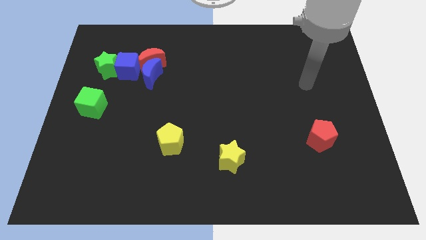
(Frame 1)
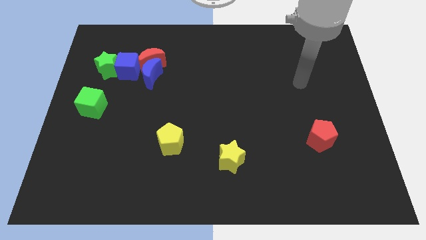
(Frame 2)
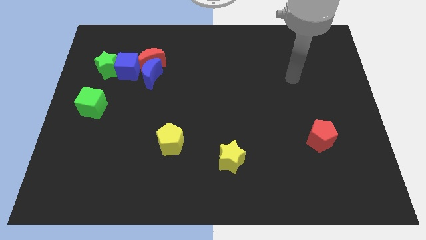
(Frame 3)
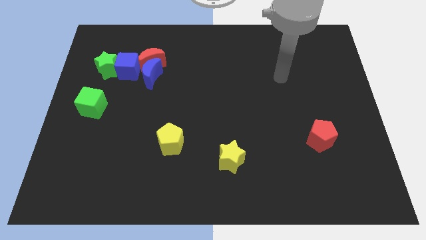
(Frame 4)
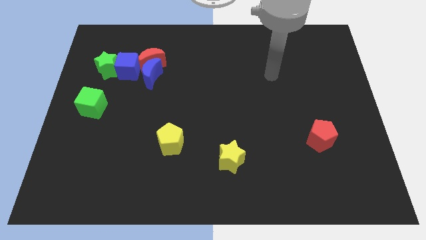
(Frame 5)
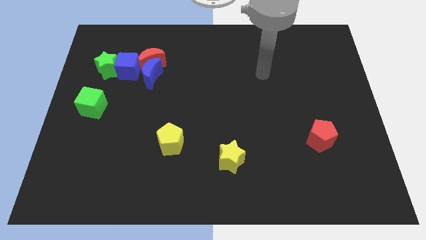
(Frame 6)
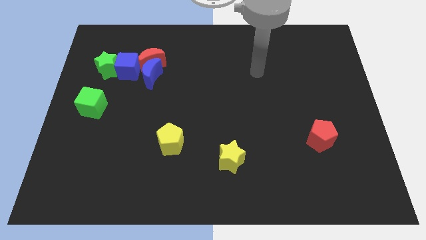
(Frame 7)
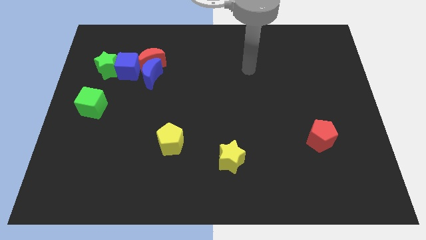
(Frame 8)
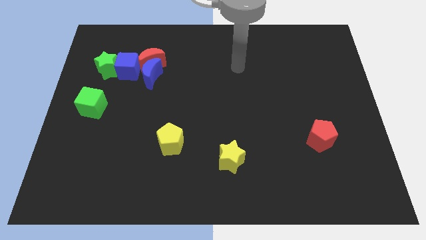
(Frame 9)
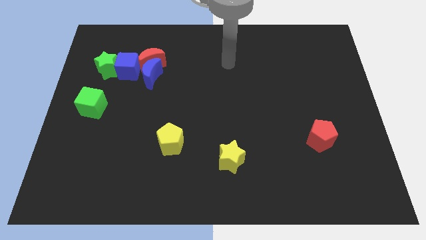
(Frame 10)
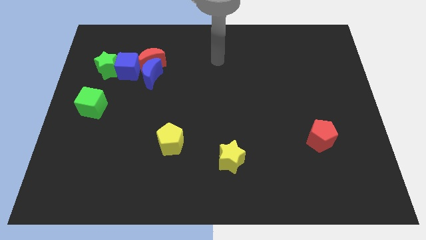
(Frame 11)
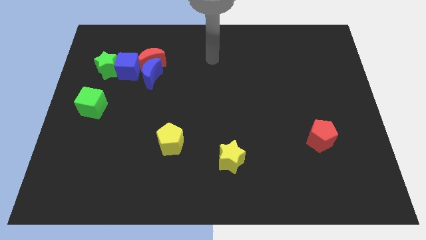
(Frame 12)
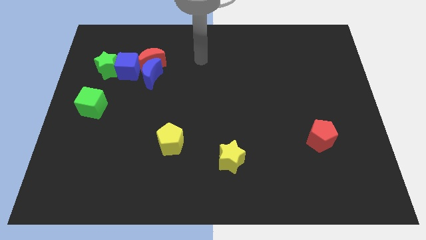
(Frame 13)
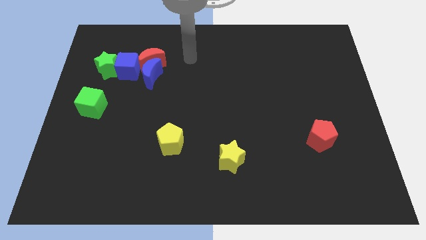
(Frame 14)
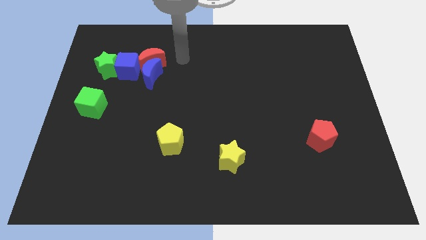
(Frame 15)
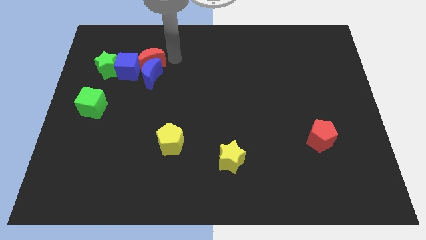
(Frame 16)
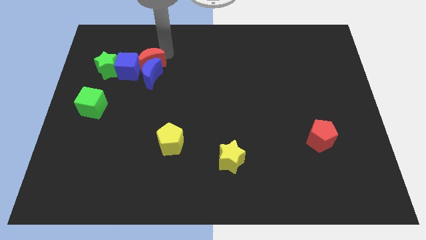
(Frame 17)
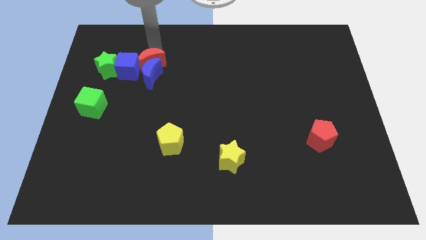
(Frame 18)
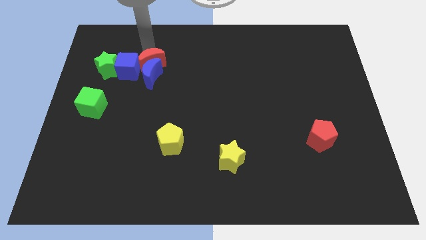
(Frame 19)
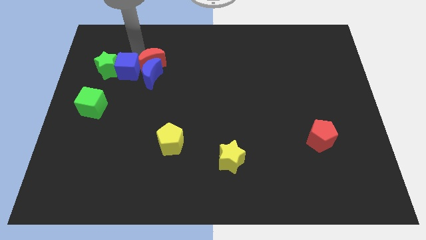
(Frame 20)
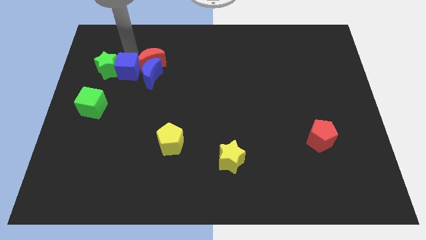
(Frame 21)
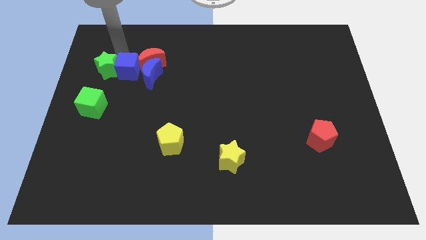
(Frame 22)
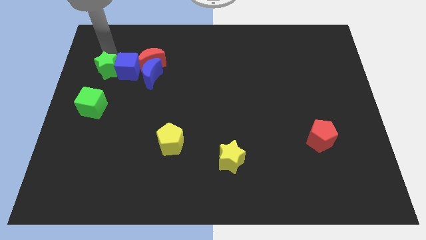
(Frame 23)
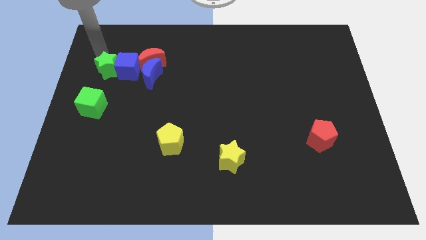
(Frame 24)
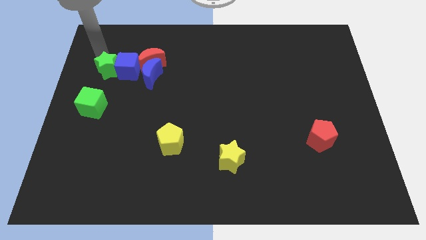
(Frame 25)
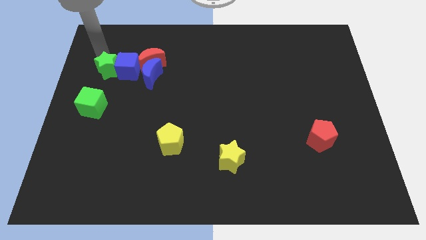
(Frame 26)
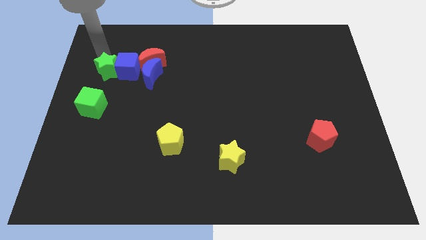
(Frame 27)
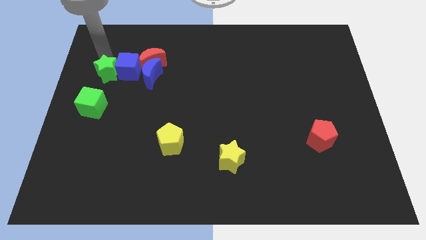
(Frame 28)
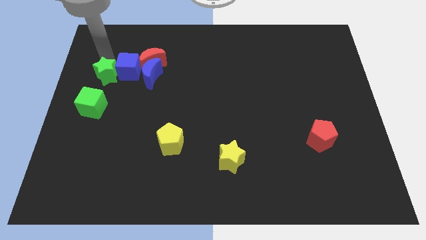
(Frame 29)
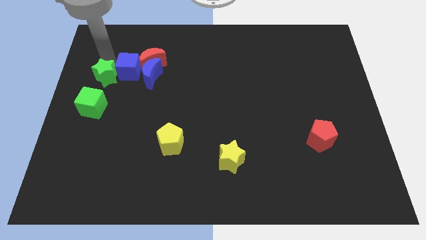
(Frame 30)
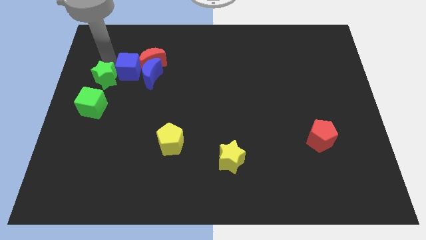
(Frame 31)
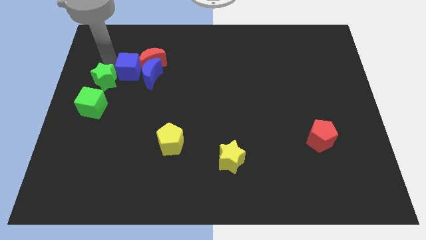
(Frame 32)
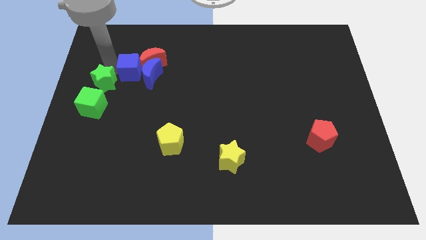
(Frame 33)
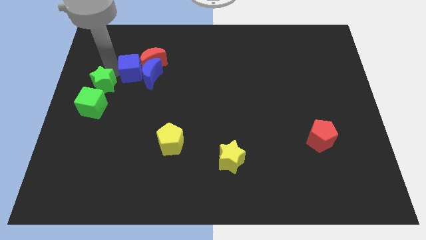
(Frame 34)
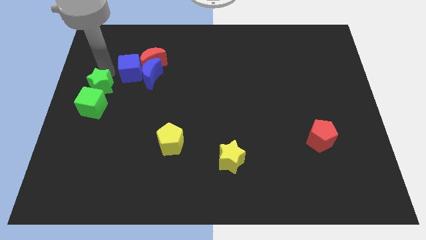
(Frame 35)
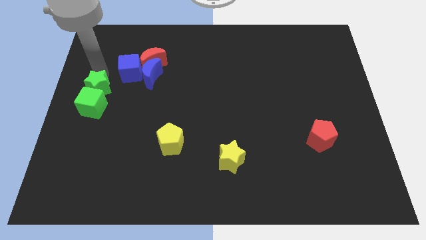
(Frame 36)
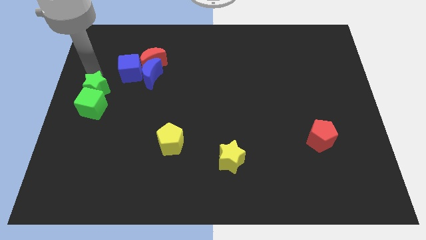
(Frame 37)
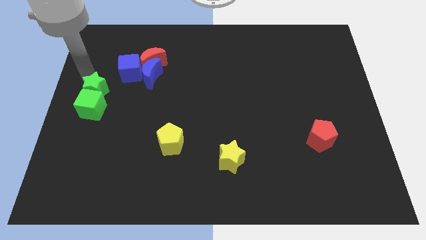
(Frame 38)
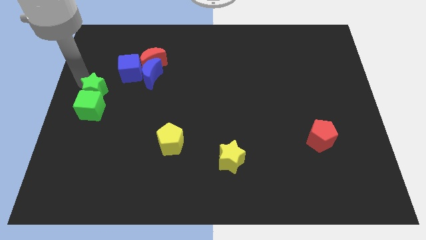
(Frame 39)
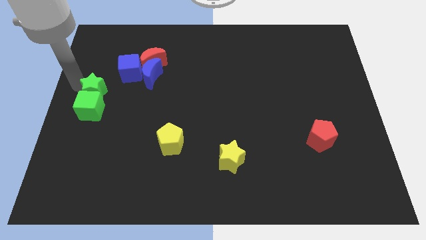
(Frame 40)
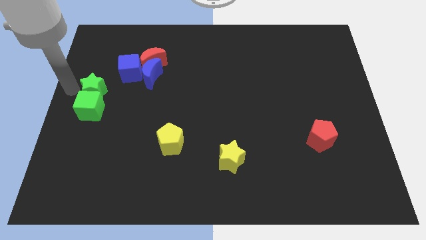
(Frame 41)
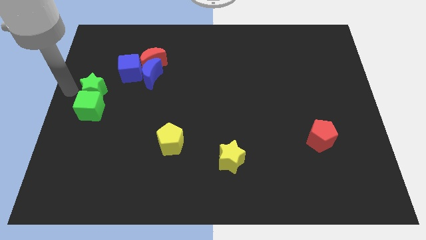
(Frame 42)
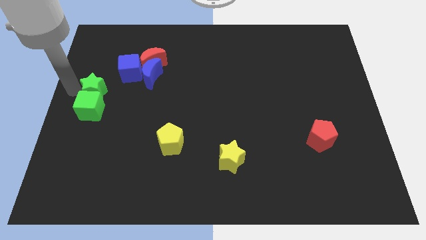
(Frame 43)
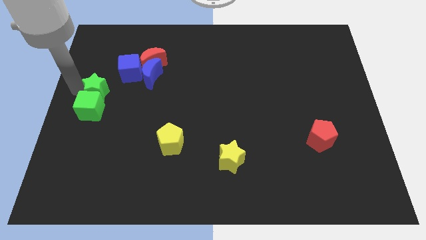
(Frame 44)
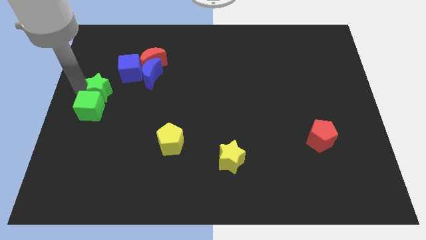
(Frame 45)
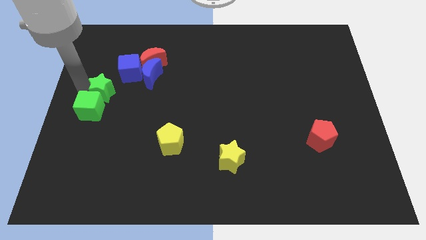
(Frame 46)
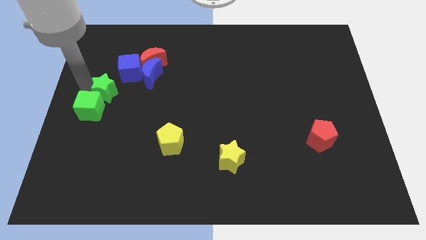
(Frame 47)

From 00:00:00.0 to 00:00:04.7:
push the green star to the bottom left of the blue moon

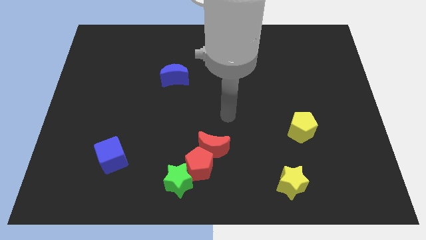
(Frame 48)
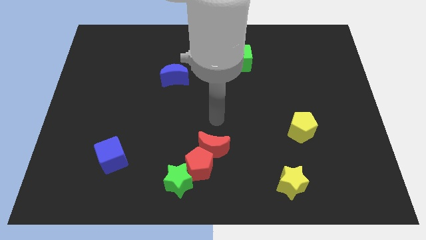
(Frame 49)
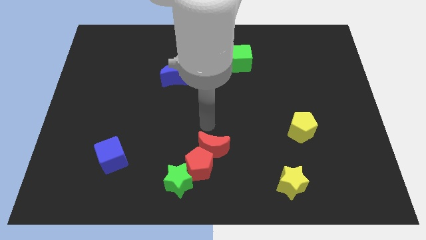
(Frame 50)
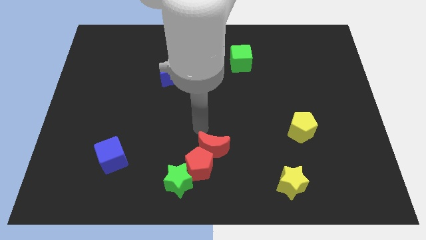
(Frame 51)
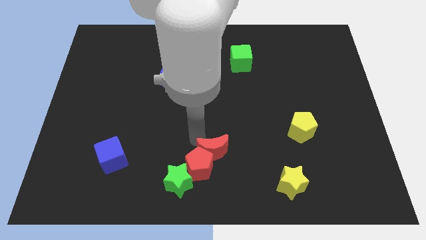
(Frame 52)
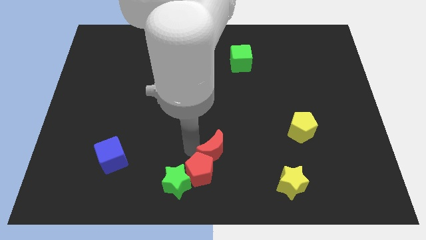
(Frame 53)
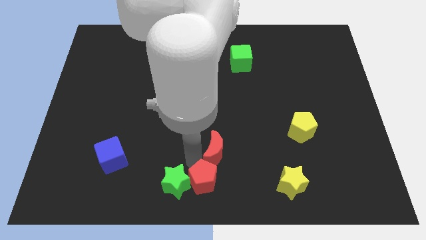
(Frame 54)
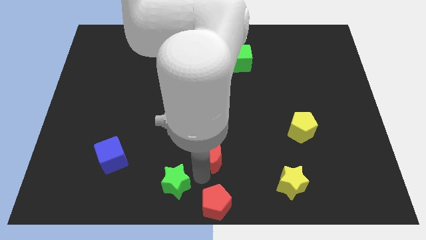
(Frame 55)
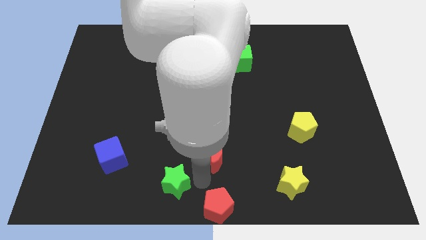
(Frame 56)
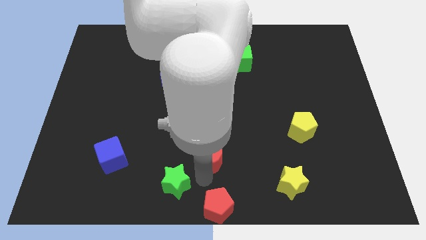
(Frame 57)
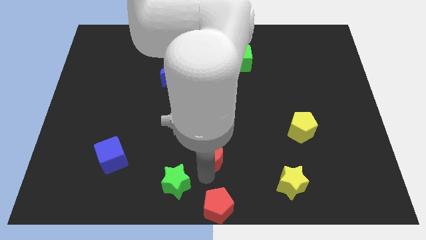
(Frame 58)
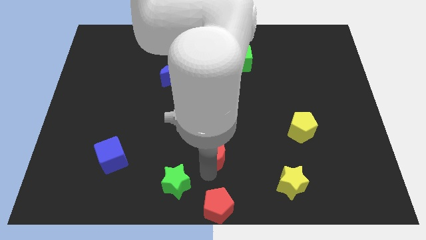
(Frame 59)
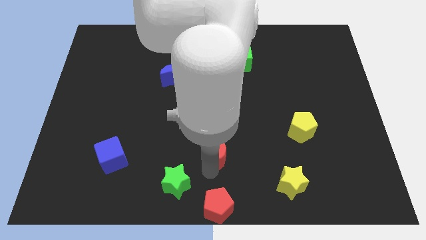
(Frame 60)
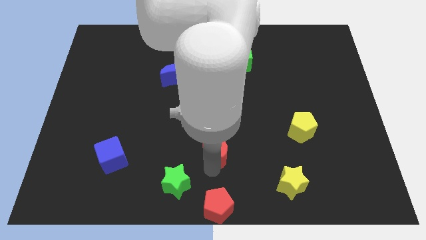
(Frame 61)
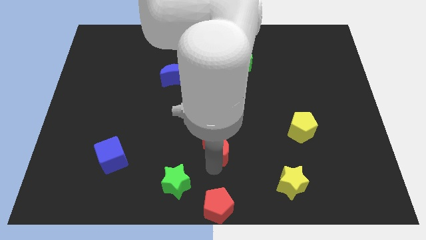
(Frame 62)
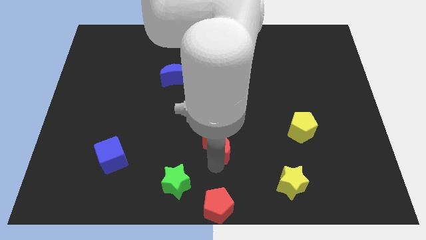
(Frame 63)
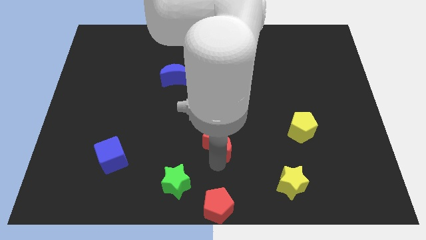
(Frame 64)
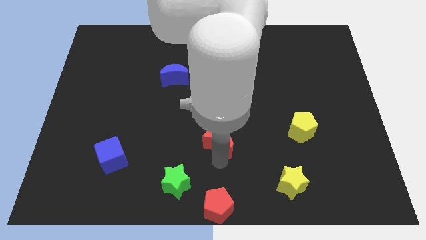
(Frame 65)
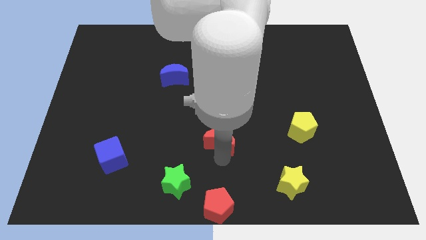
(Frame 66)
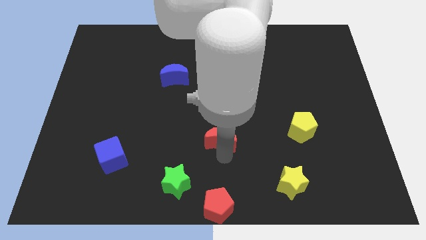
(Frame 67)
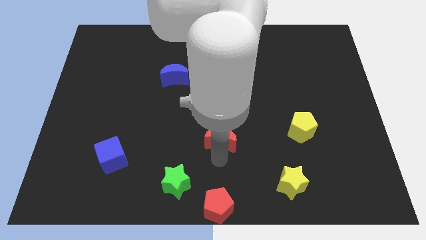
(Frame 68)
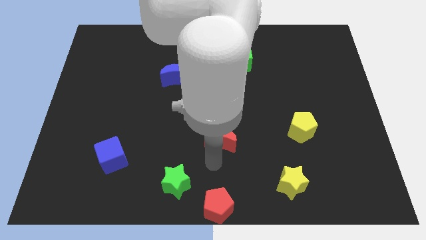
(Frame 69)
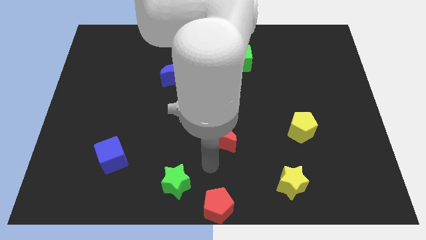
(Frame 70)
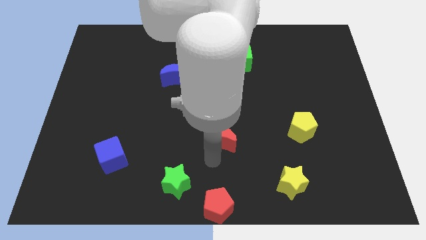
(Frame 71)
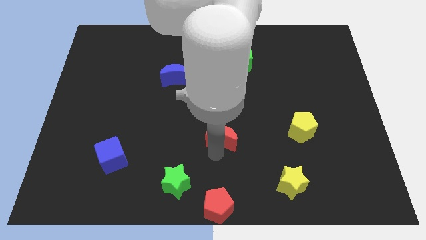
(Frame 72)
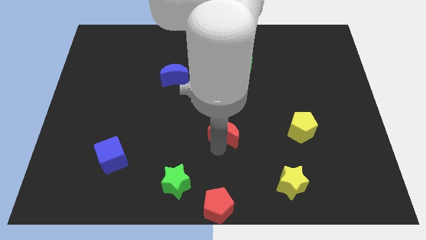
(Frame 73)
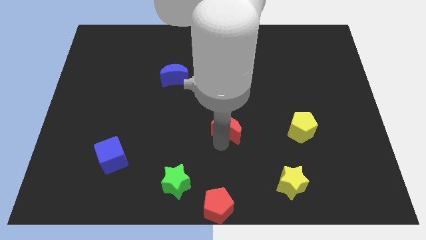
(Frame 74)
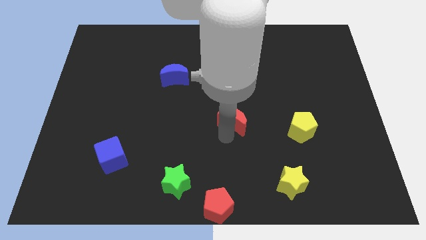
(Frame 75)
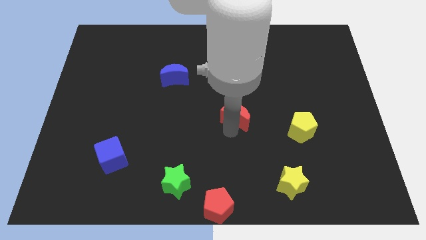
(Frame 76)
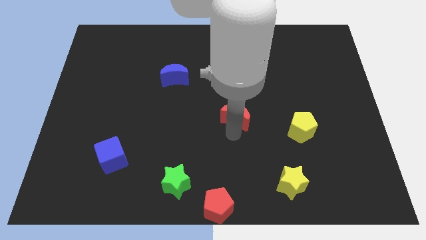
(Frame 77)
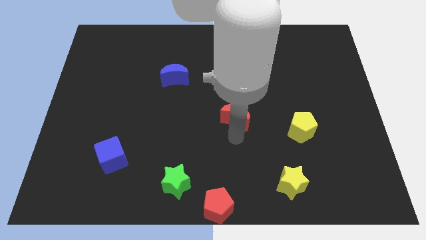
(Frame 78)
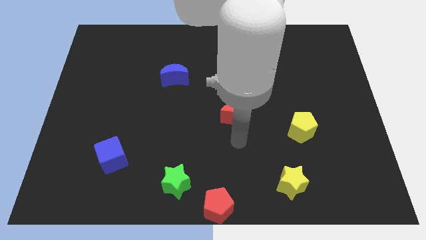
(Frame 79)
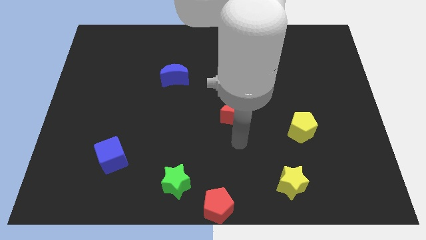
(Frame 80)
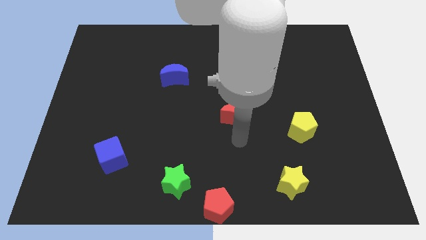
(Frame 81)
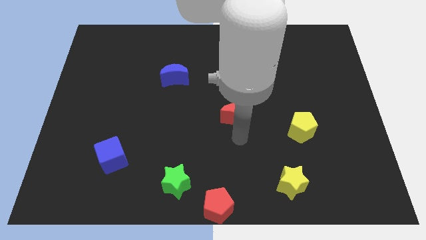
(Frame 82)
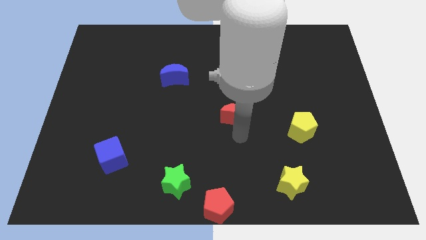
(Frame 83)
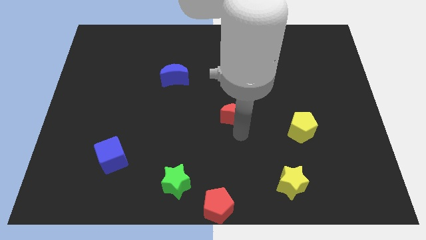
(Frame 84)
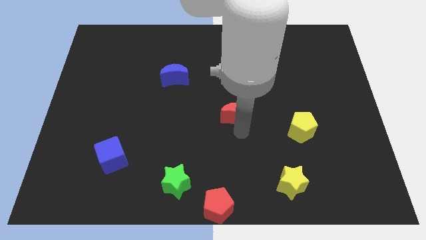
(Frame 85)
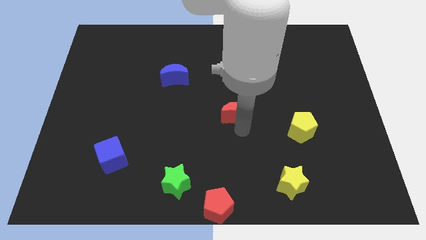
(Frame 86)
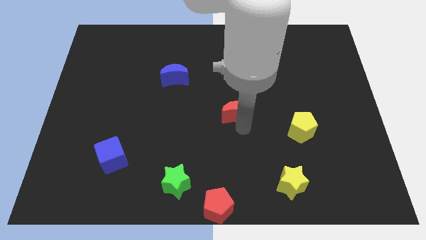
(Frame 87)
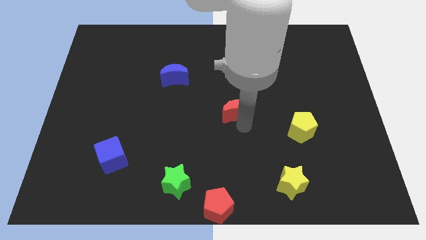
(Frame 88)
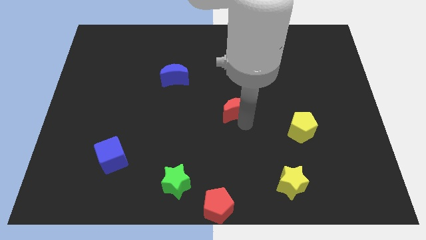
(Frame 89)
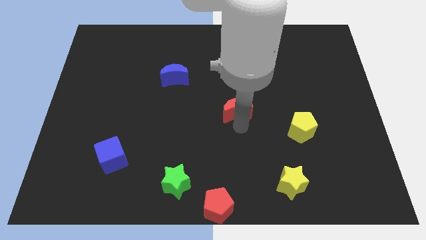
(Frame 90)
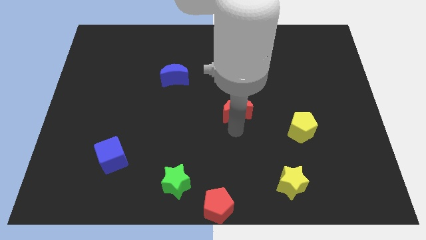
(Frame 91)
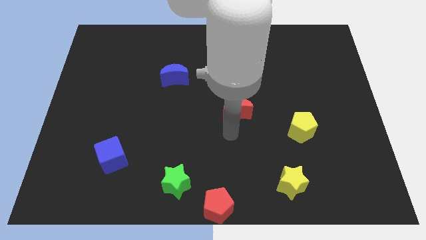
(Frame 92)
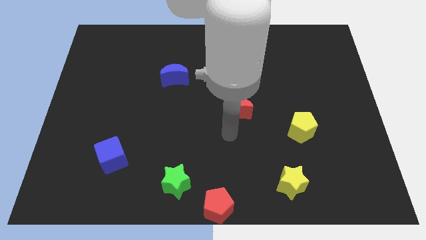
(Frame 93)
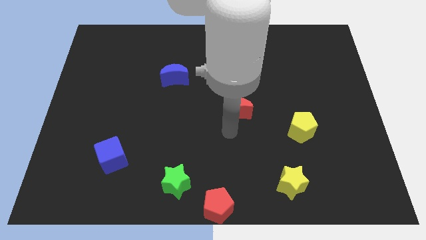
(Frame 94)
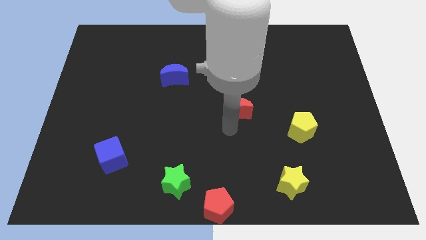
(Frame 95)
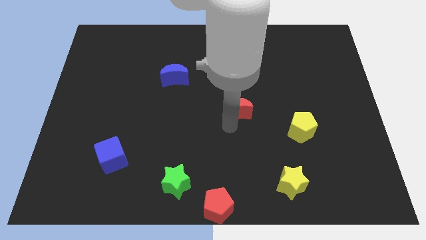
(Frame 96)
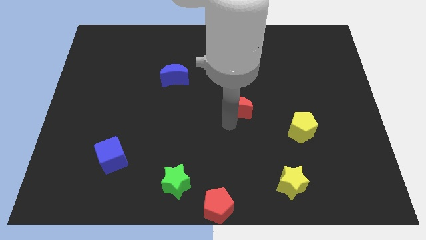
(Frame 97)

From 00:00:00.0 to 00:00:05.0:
push the red moon to the bottom of the green cube
